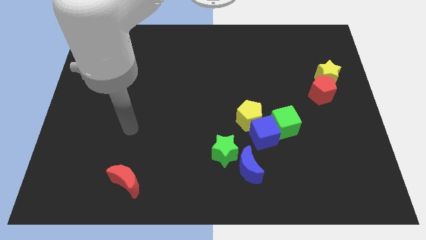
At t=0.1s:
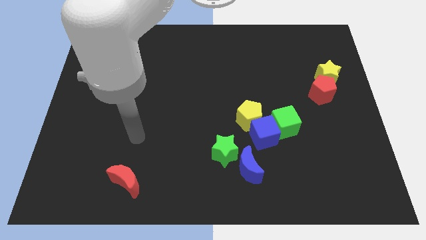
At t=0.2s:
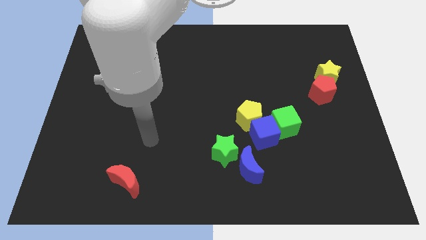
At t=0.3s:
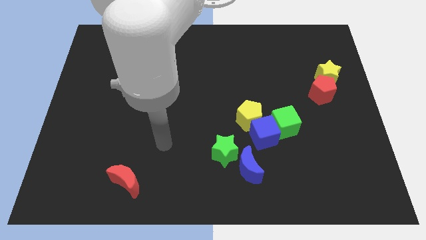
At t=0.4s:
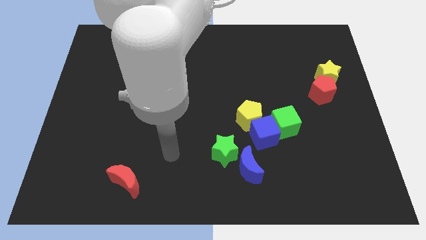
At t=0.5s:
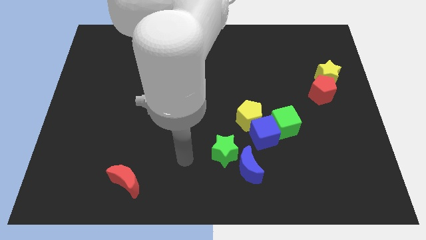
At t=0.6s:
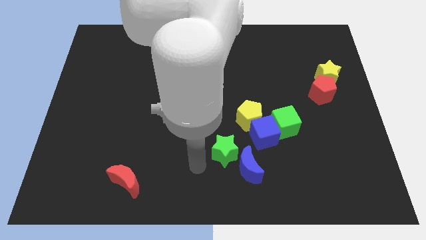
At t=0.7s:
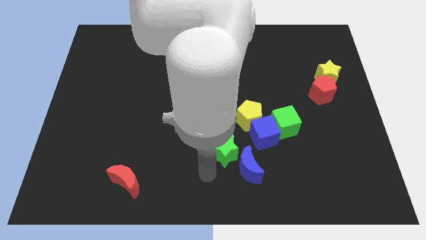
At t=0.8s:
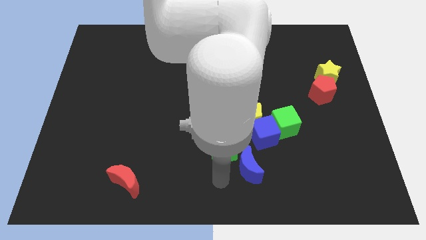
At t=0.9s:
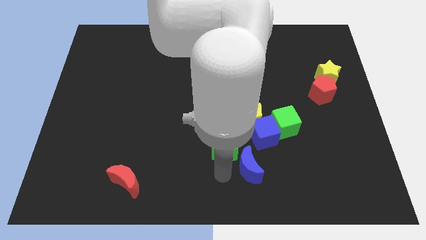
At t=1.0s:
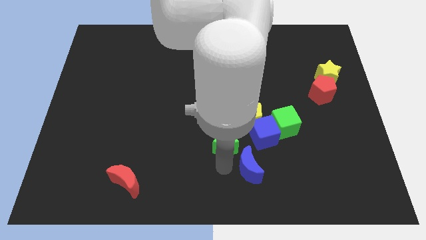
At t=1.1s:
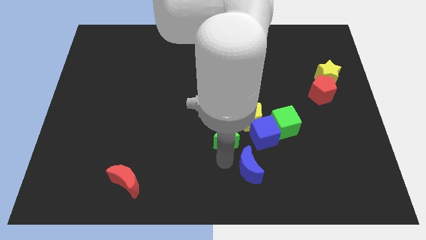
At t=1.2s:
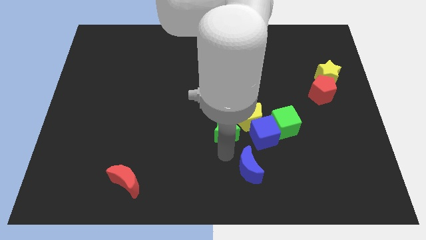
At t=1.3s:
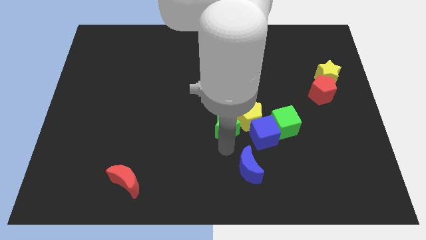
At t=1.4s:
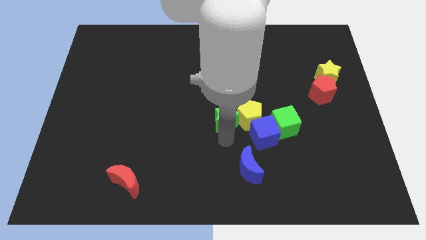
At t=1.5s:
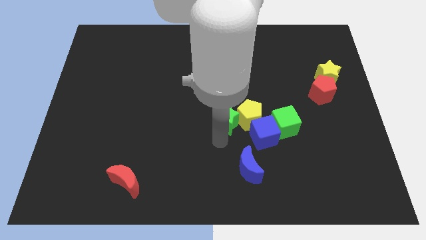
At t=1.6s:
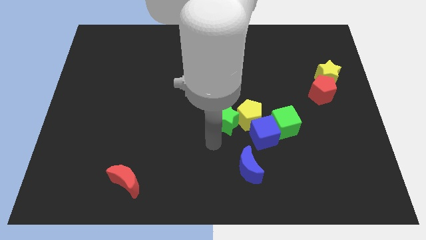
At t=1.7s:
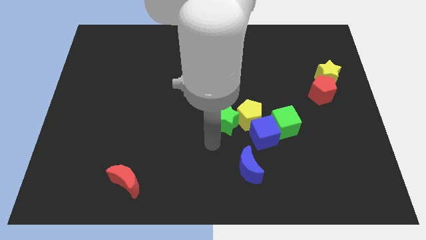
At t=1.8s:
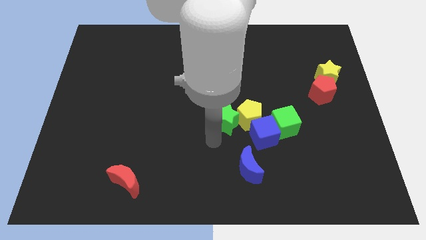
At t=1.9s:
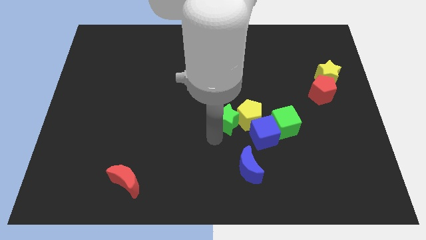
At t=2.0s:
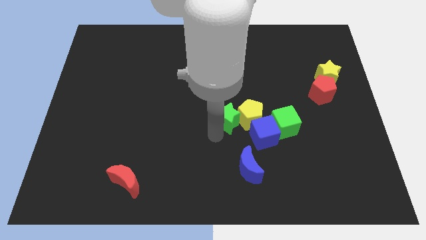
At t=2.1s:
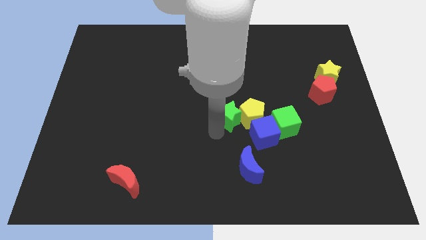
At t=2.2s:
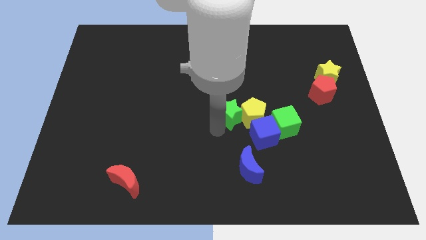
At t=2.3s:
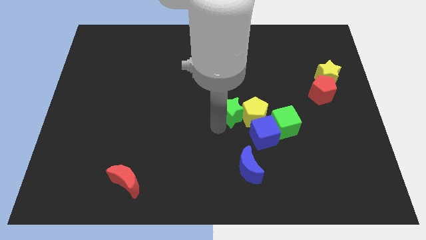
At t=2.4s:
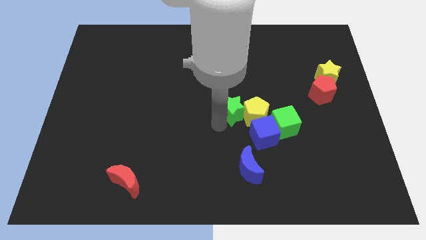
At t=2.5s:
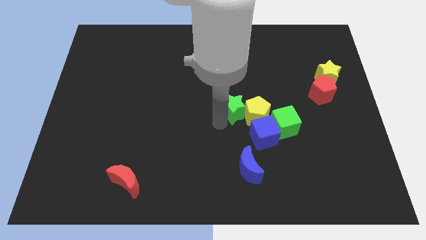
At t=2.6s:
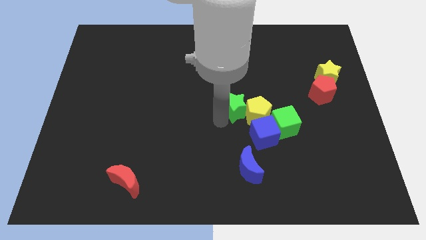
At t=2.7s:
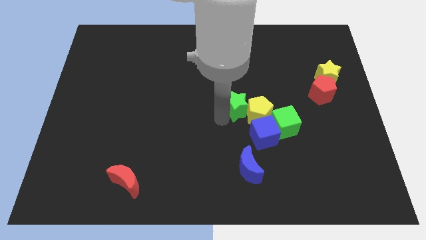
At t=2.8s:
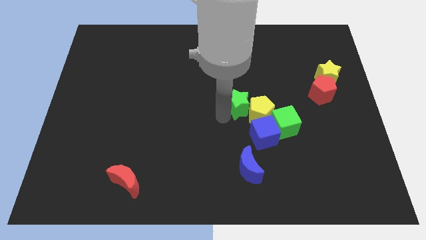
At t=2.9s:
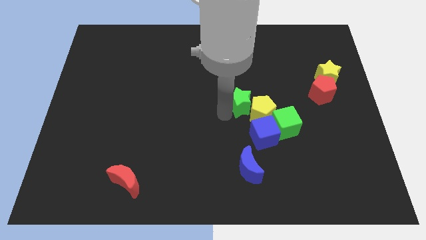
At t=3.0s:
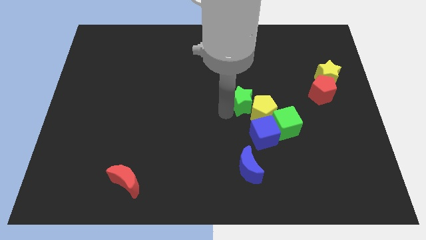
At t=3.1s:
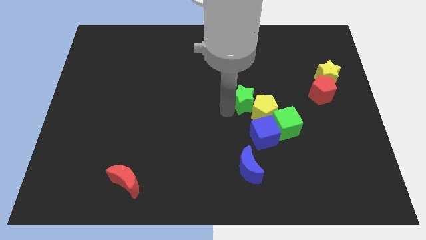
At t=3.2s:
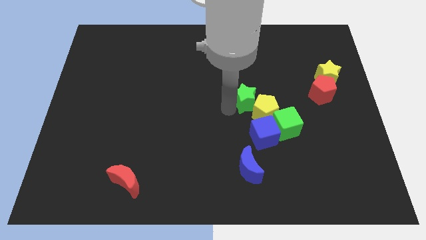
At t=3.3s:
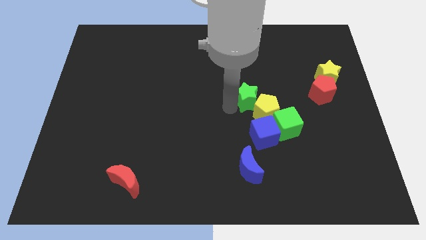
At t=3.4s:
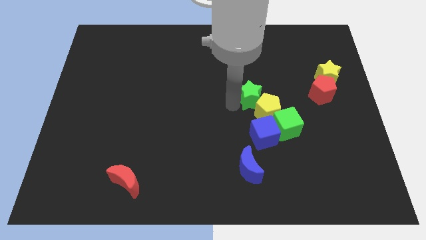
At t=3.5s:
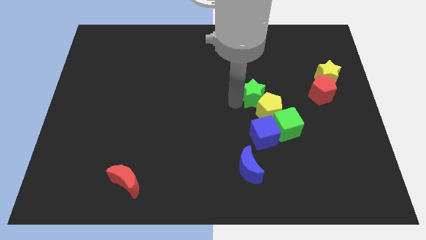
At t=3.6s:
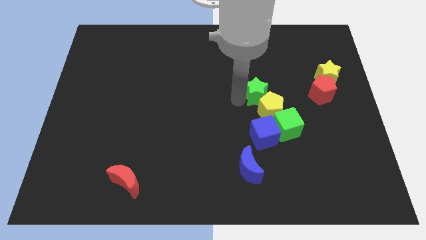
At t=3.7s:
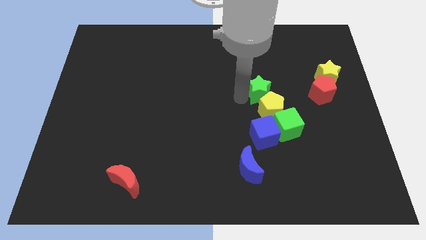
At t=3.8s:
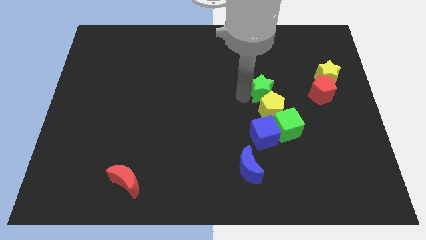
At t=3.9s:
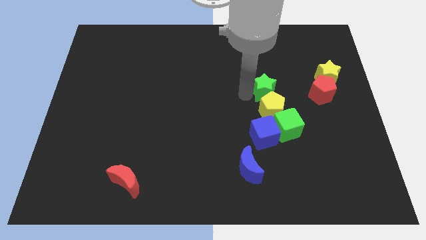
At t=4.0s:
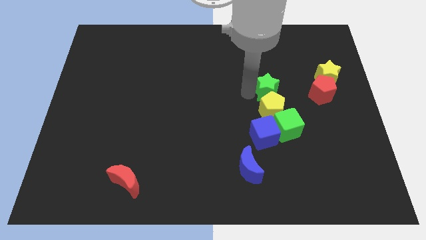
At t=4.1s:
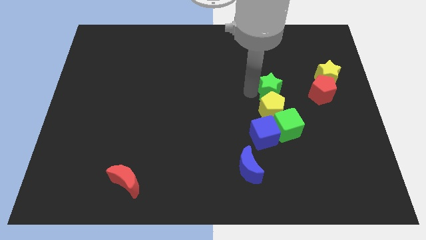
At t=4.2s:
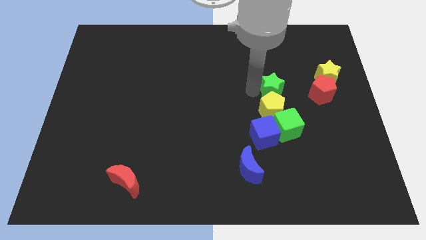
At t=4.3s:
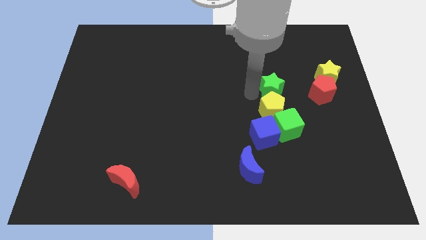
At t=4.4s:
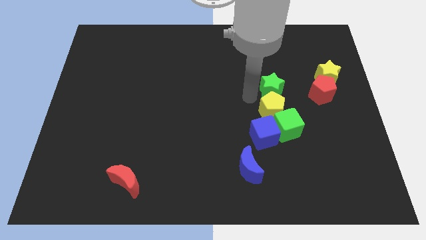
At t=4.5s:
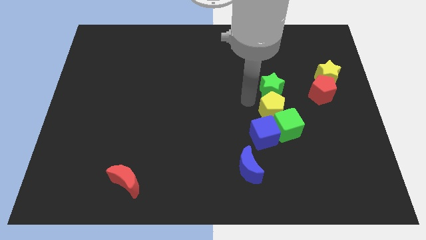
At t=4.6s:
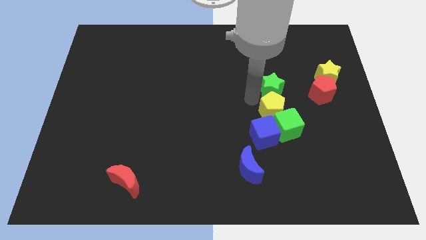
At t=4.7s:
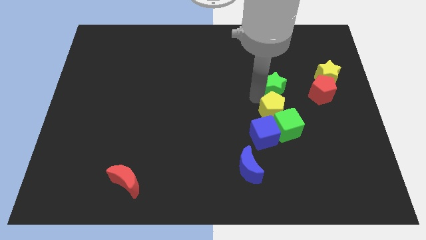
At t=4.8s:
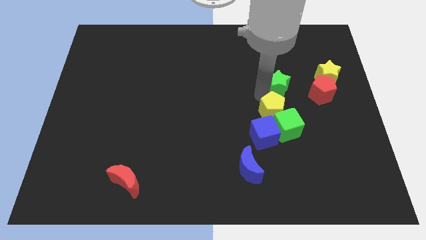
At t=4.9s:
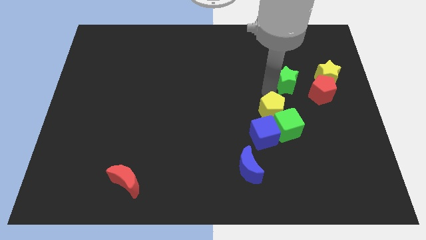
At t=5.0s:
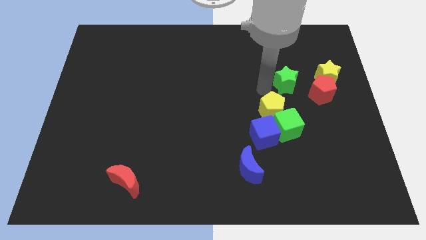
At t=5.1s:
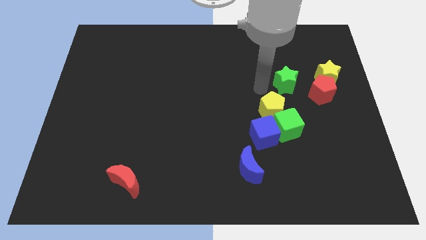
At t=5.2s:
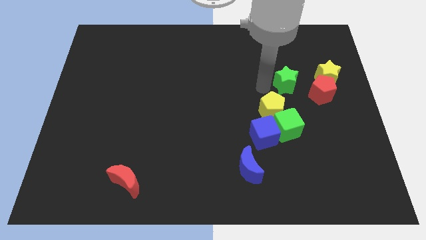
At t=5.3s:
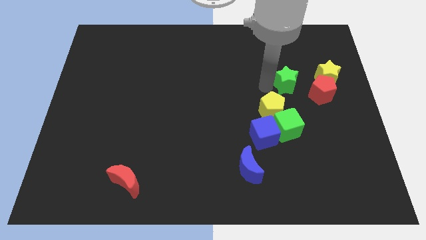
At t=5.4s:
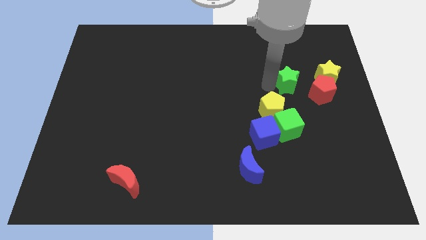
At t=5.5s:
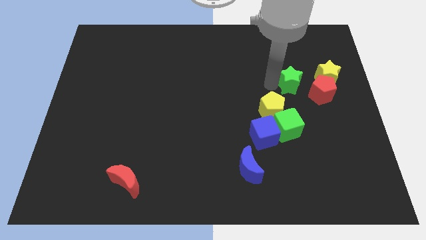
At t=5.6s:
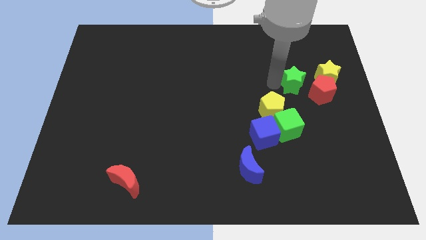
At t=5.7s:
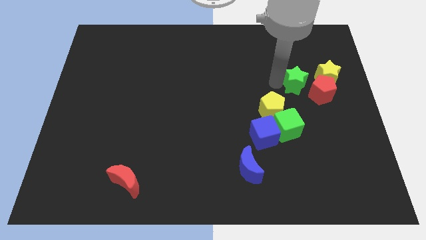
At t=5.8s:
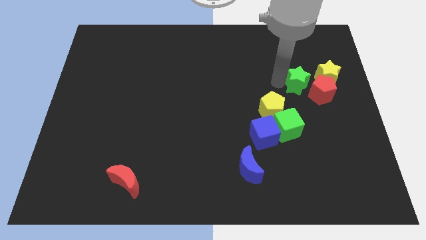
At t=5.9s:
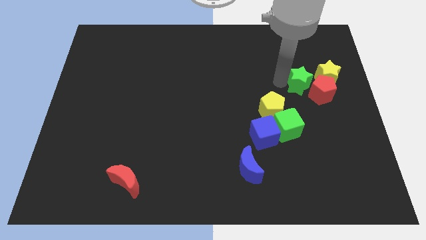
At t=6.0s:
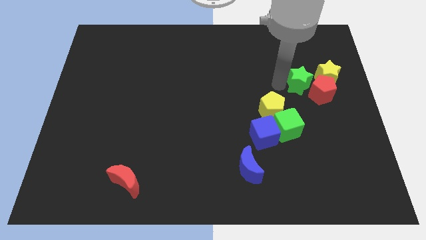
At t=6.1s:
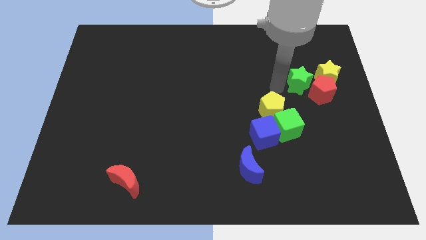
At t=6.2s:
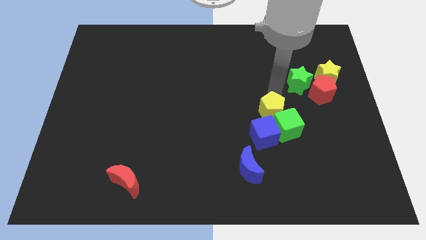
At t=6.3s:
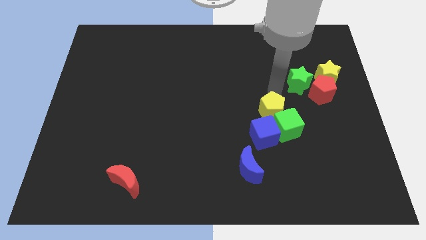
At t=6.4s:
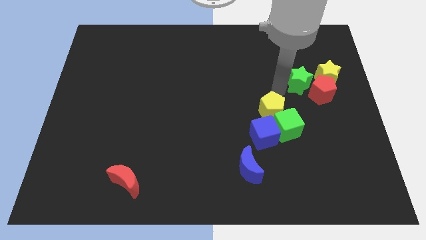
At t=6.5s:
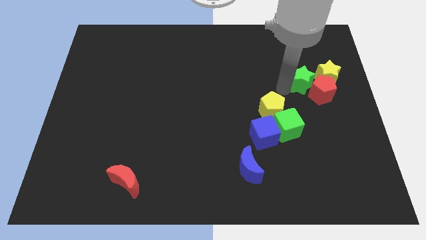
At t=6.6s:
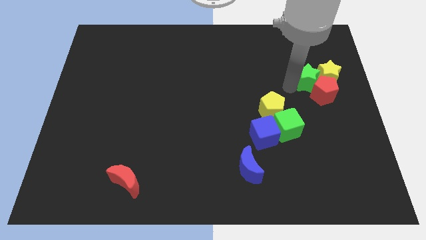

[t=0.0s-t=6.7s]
move the green star to the yellow star

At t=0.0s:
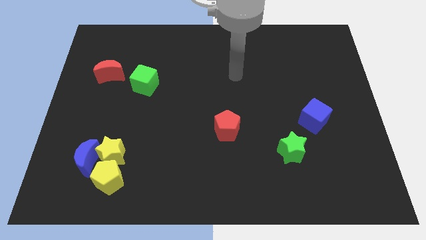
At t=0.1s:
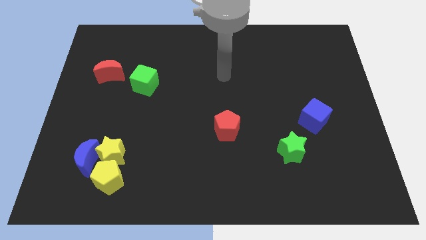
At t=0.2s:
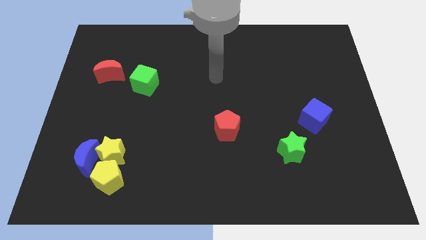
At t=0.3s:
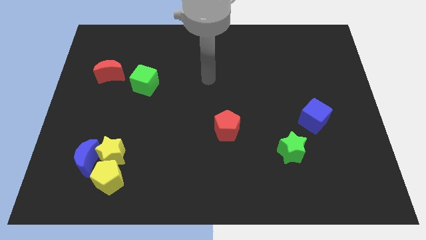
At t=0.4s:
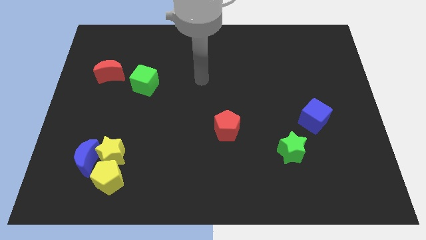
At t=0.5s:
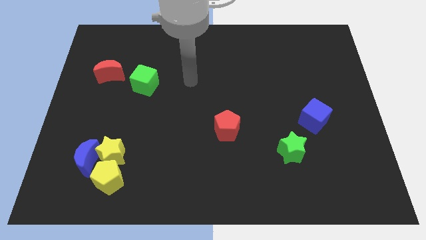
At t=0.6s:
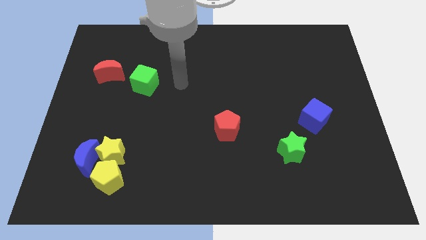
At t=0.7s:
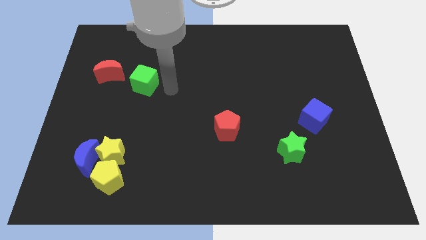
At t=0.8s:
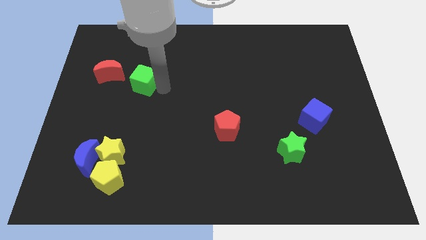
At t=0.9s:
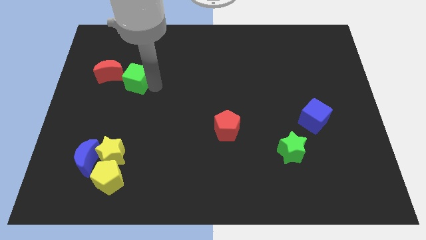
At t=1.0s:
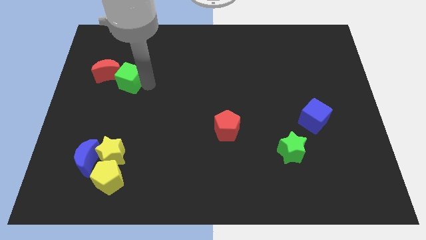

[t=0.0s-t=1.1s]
push the green cube next to the red moon
